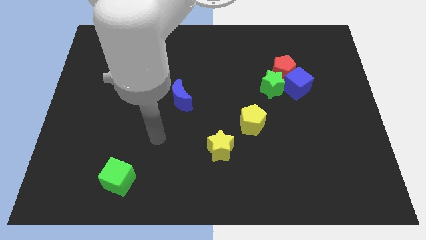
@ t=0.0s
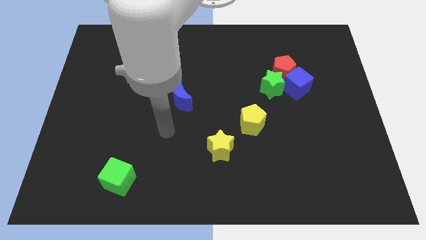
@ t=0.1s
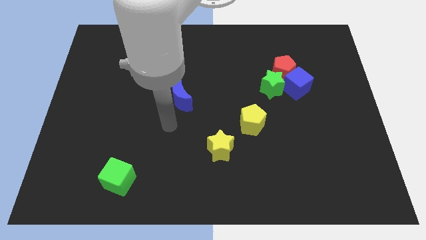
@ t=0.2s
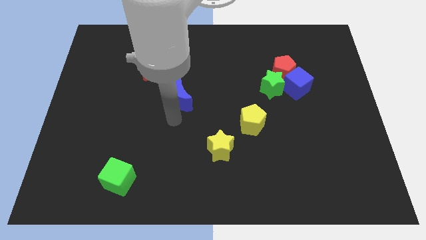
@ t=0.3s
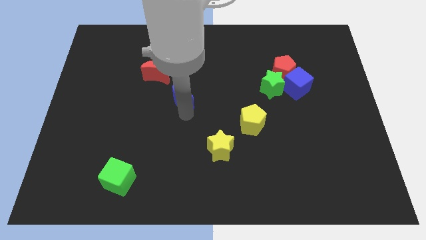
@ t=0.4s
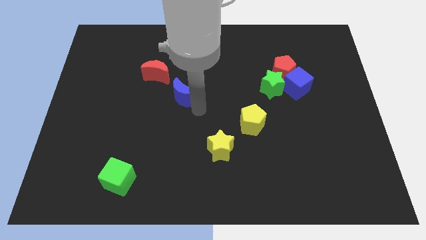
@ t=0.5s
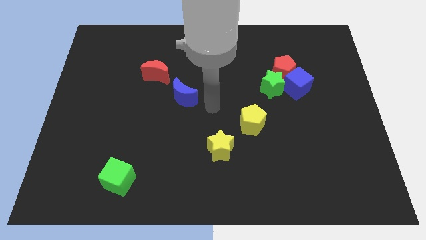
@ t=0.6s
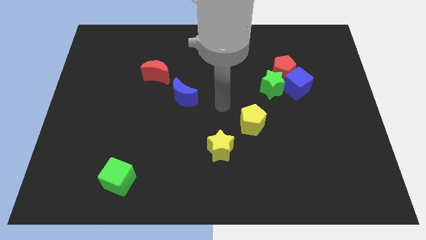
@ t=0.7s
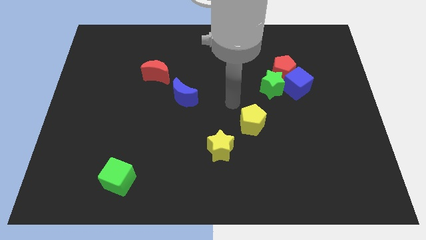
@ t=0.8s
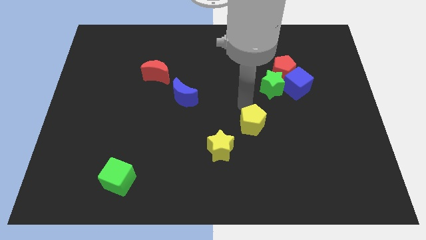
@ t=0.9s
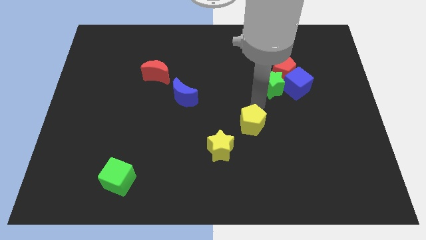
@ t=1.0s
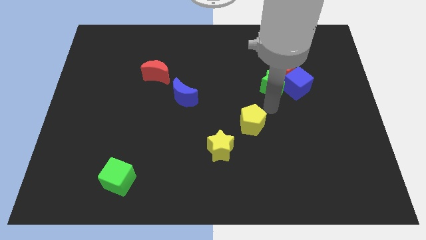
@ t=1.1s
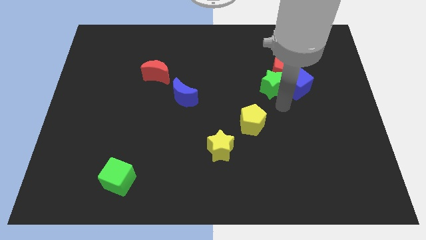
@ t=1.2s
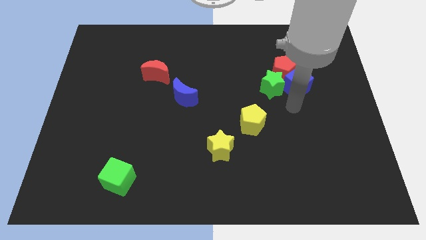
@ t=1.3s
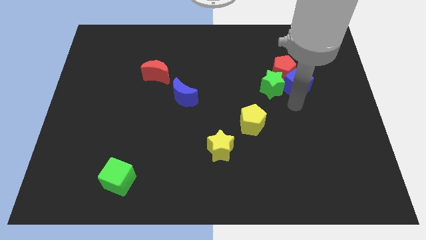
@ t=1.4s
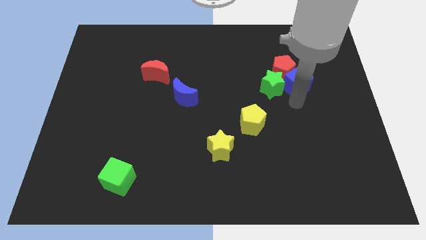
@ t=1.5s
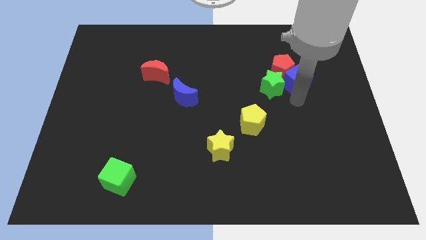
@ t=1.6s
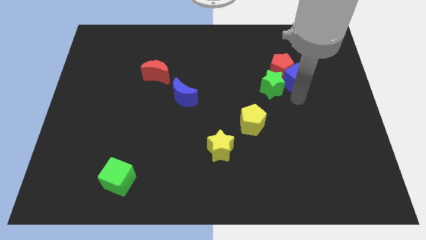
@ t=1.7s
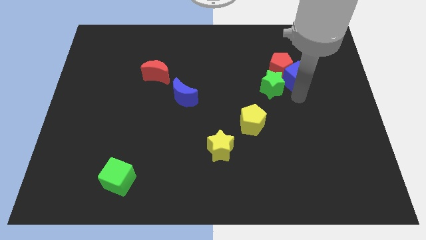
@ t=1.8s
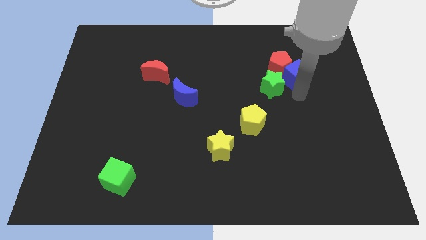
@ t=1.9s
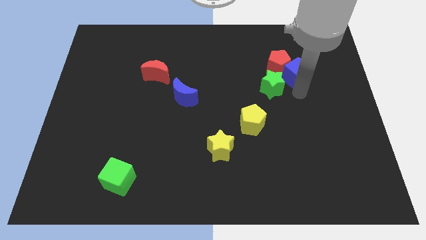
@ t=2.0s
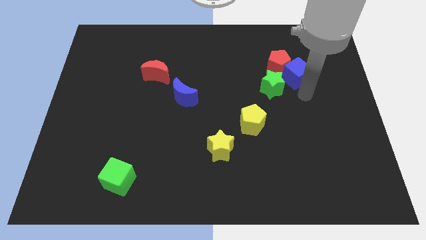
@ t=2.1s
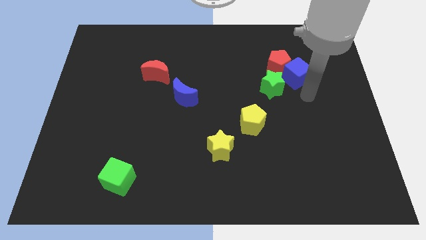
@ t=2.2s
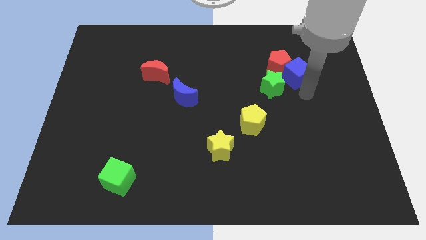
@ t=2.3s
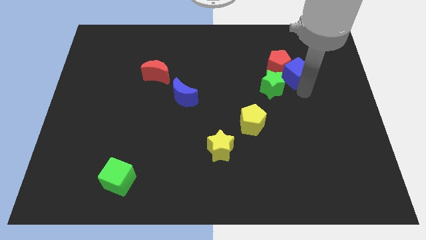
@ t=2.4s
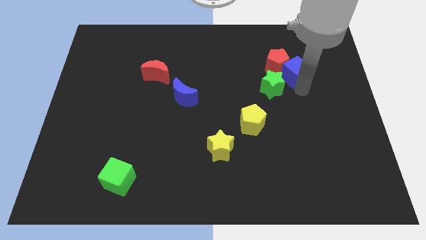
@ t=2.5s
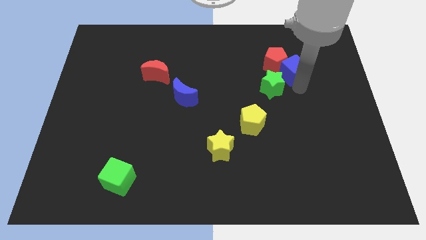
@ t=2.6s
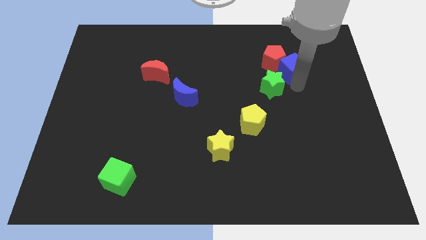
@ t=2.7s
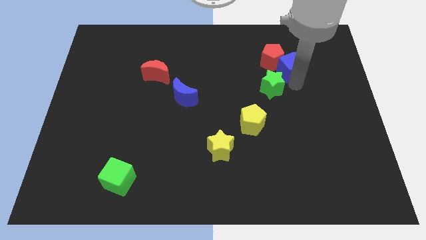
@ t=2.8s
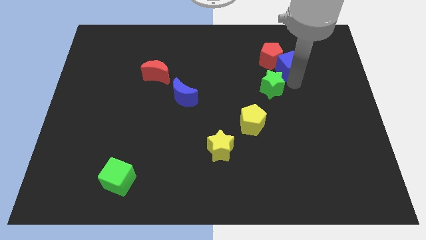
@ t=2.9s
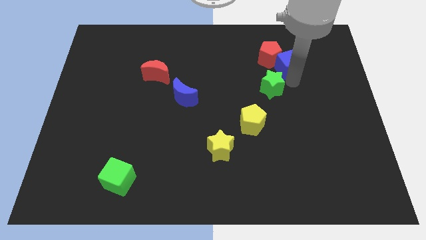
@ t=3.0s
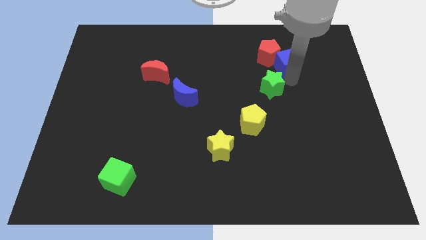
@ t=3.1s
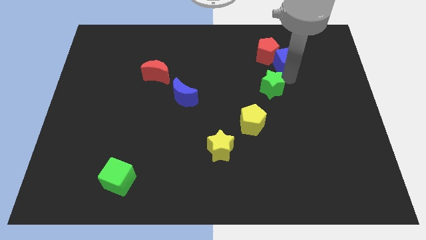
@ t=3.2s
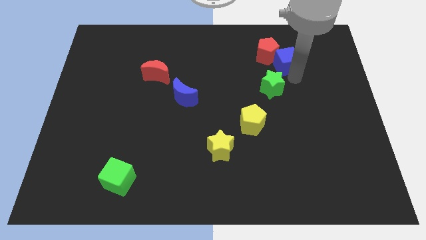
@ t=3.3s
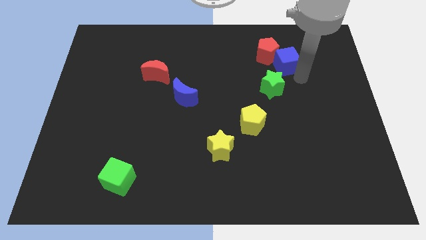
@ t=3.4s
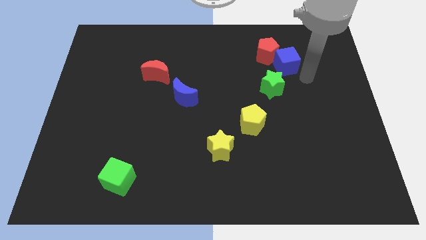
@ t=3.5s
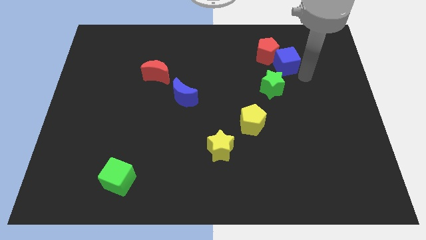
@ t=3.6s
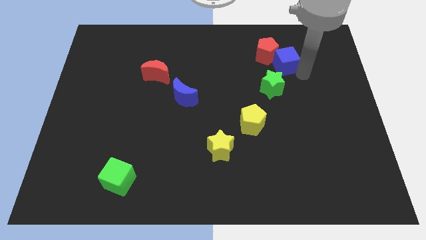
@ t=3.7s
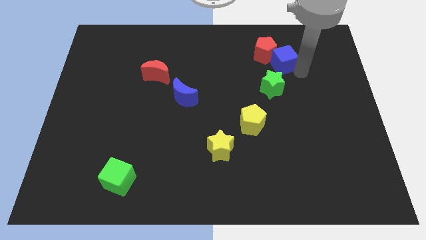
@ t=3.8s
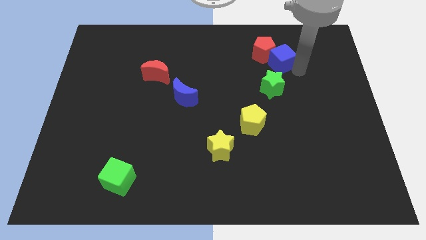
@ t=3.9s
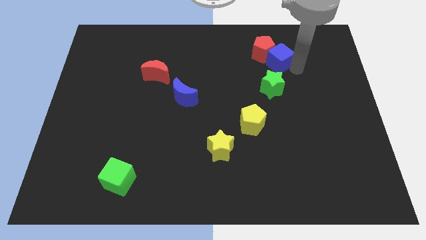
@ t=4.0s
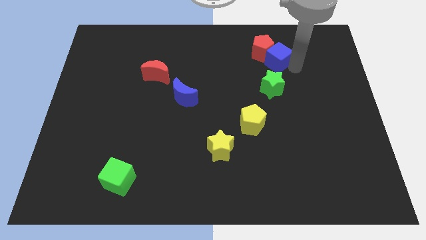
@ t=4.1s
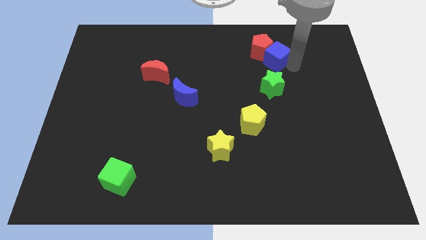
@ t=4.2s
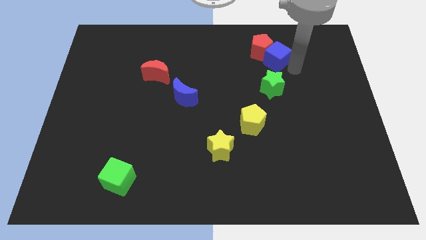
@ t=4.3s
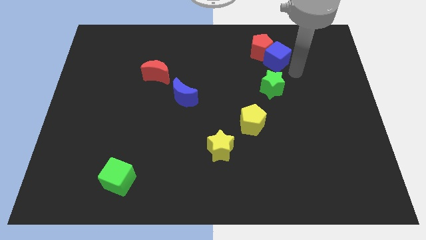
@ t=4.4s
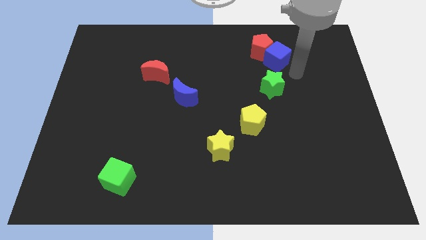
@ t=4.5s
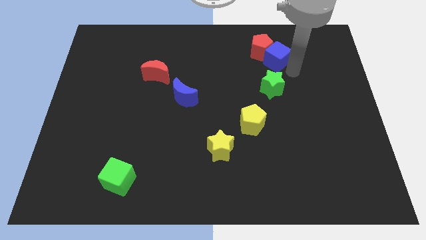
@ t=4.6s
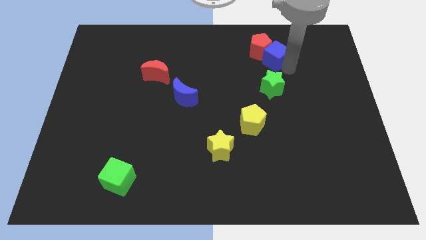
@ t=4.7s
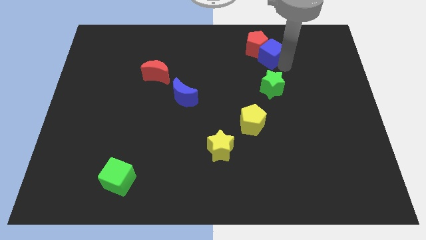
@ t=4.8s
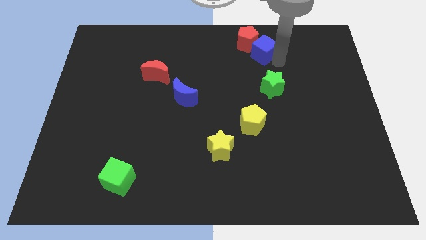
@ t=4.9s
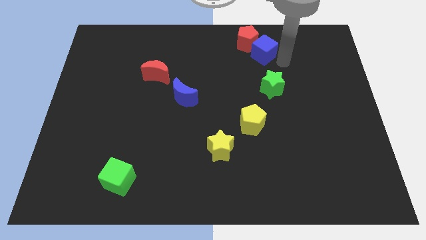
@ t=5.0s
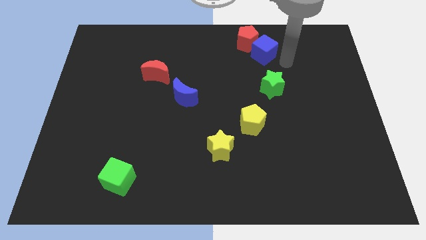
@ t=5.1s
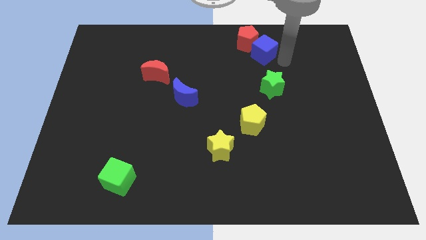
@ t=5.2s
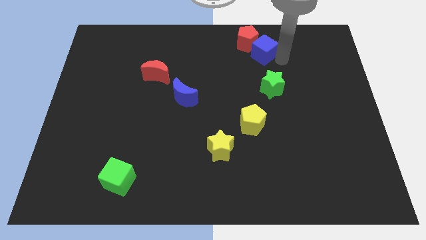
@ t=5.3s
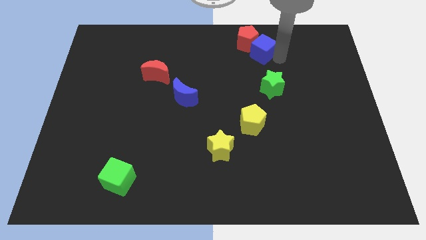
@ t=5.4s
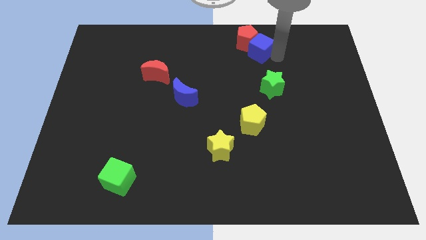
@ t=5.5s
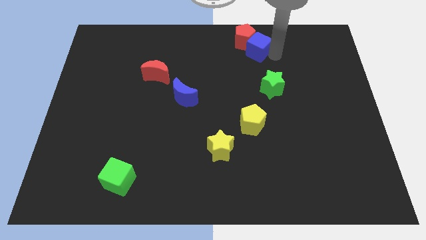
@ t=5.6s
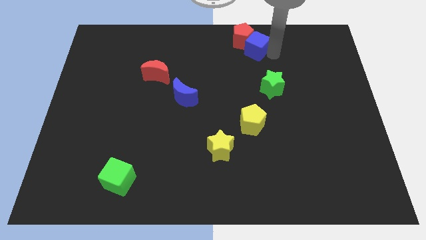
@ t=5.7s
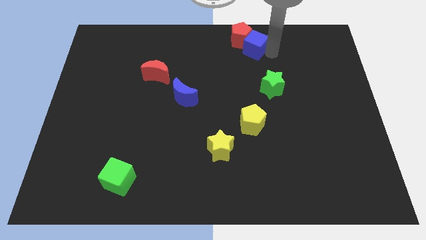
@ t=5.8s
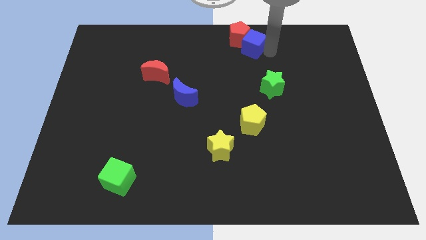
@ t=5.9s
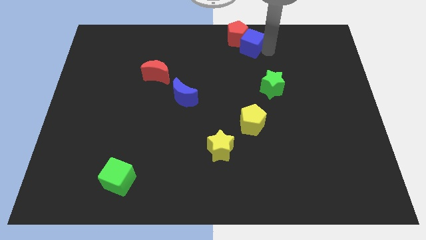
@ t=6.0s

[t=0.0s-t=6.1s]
move the blue cube to the top

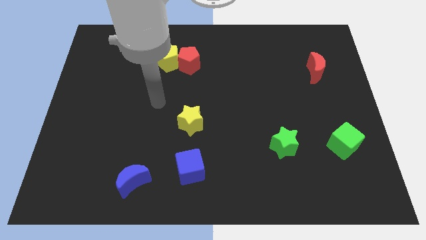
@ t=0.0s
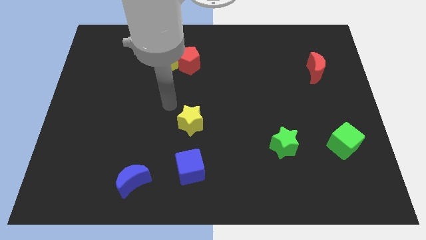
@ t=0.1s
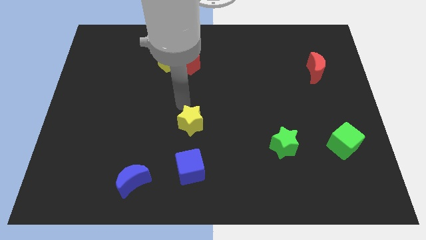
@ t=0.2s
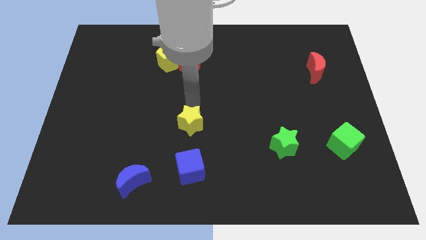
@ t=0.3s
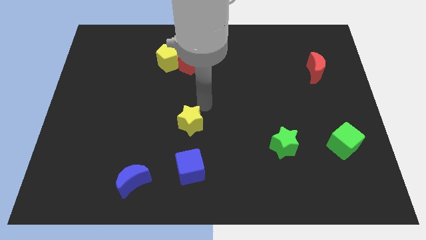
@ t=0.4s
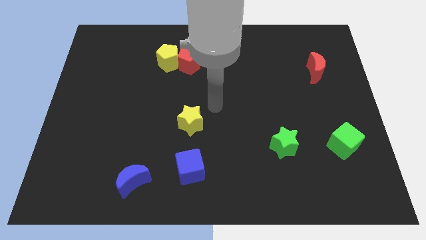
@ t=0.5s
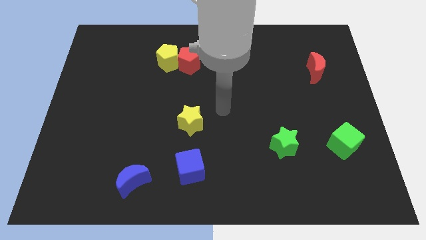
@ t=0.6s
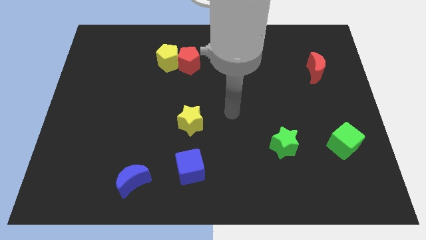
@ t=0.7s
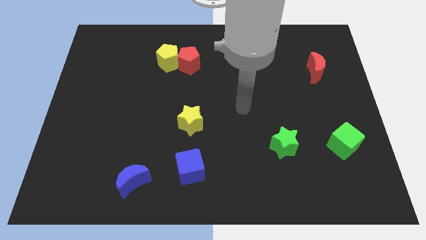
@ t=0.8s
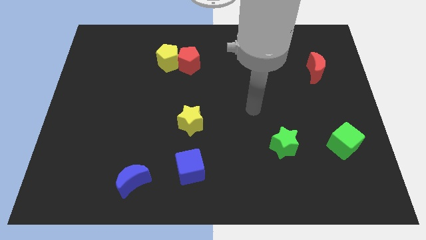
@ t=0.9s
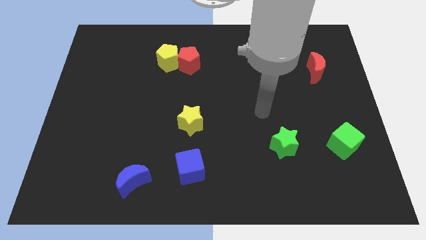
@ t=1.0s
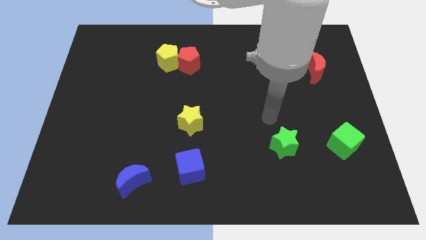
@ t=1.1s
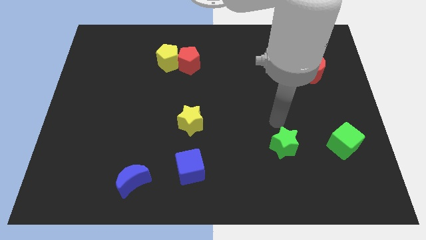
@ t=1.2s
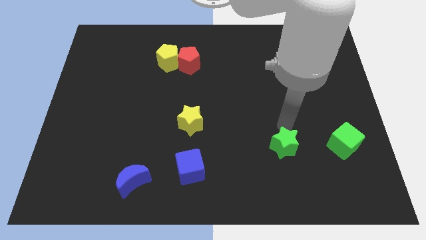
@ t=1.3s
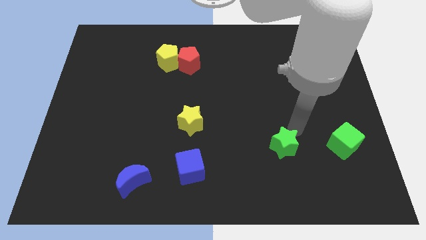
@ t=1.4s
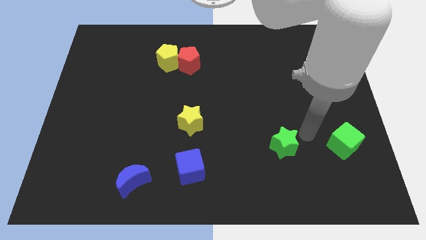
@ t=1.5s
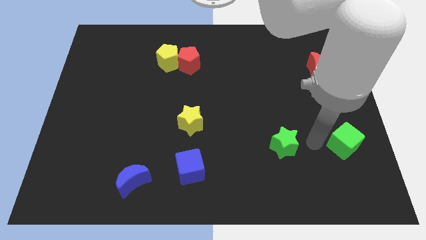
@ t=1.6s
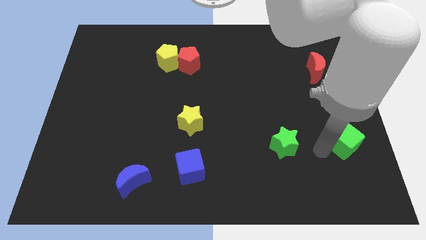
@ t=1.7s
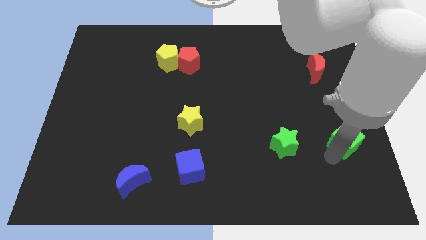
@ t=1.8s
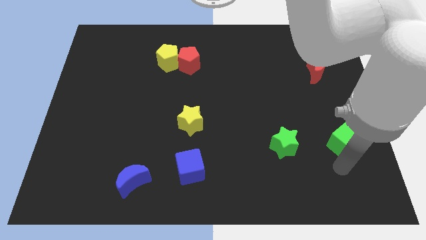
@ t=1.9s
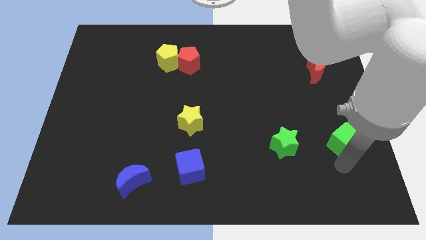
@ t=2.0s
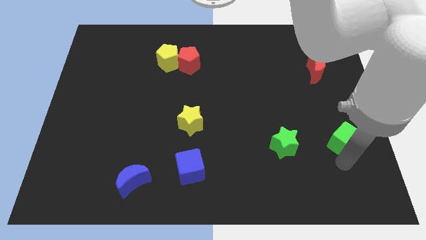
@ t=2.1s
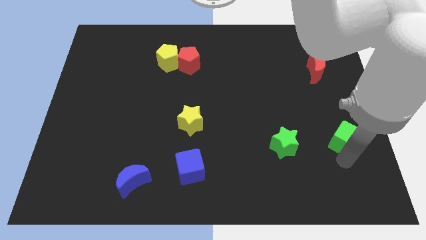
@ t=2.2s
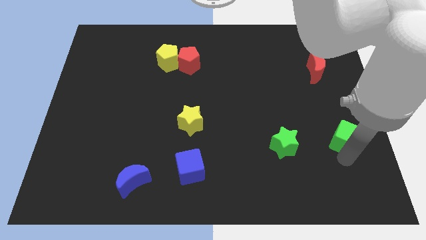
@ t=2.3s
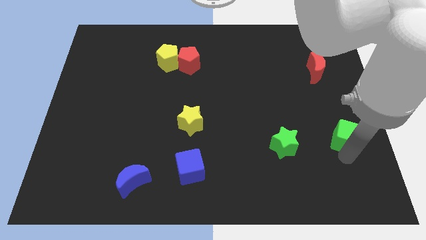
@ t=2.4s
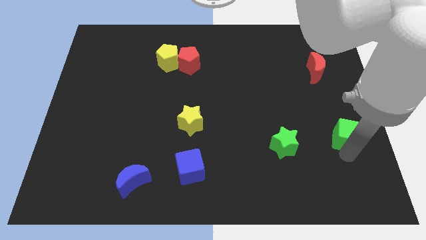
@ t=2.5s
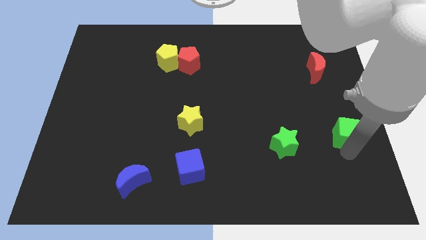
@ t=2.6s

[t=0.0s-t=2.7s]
push the green cube to the right side of the board
